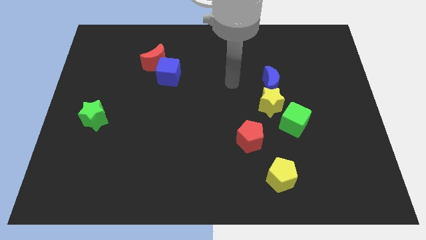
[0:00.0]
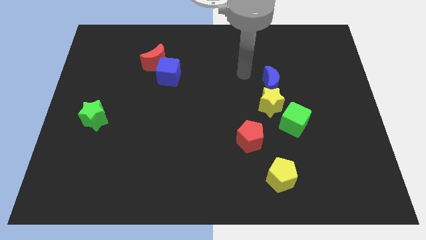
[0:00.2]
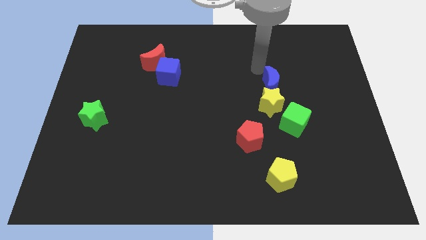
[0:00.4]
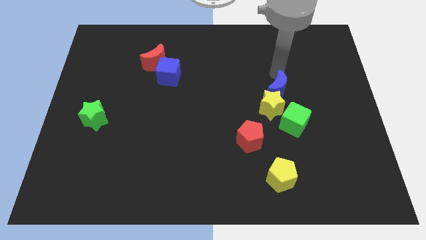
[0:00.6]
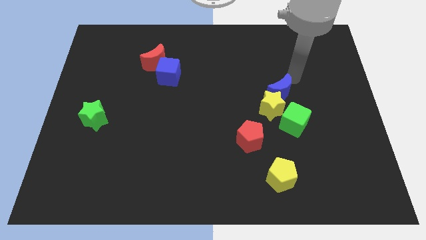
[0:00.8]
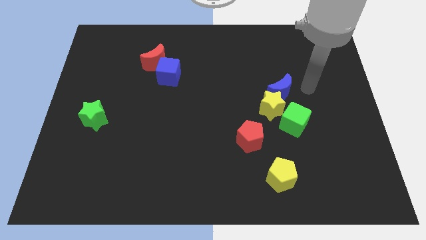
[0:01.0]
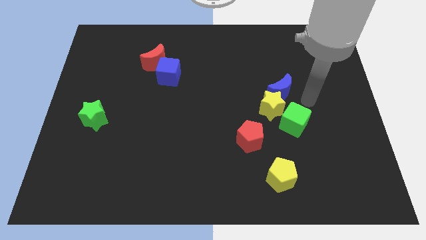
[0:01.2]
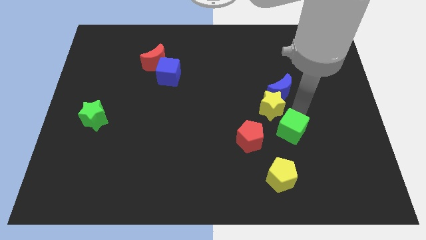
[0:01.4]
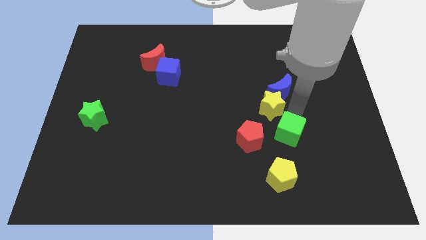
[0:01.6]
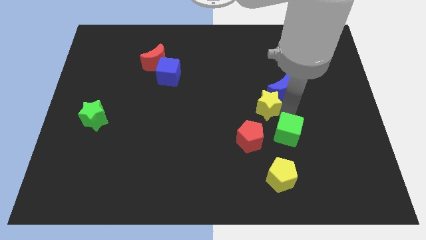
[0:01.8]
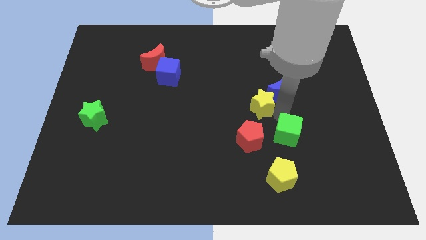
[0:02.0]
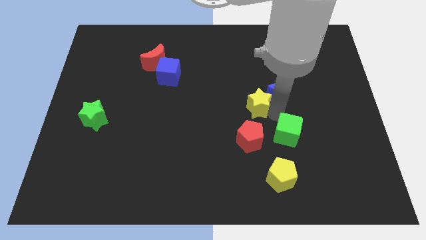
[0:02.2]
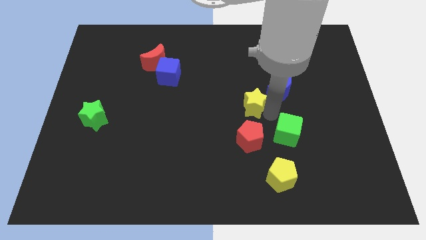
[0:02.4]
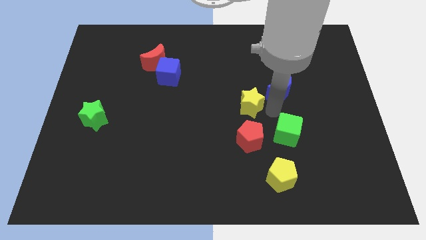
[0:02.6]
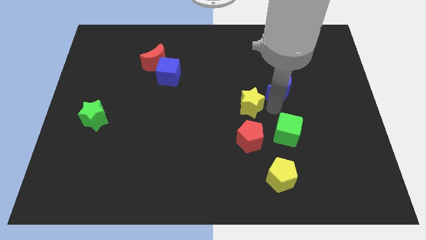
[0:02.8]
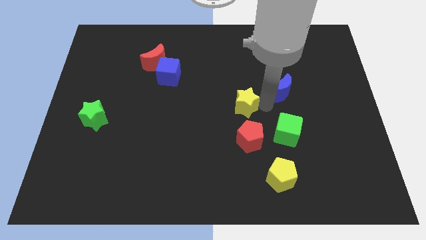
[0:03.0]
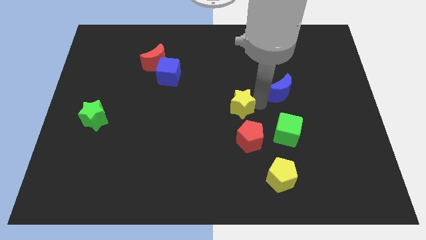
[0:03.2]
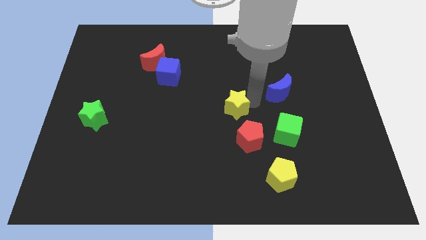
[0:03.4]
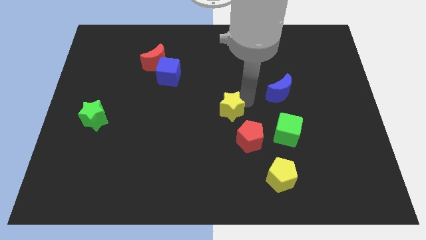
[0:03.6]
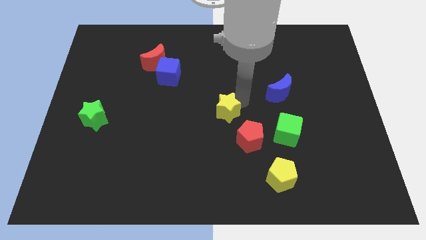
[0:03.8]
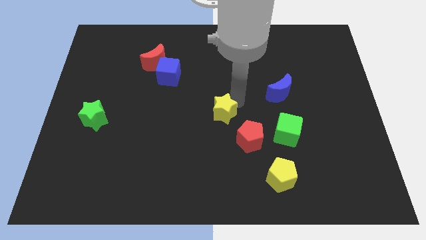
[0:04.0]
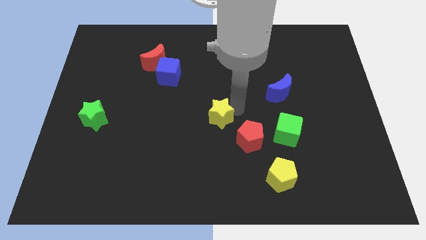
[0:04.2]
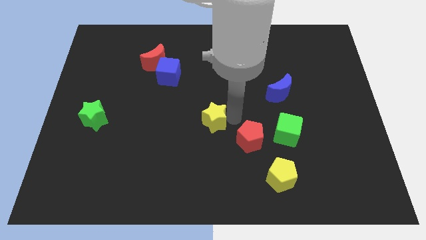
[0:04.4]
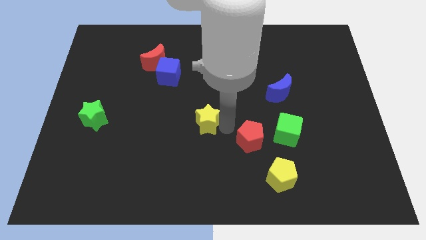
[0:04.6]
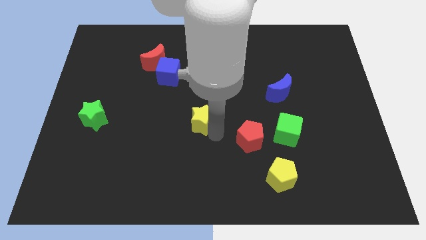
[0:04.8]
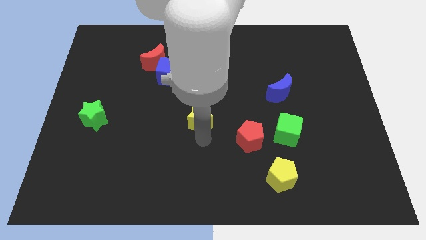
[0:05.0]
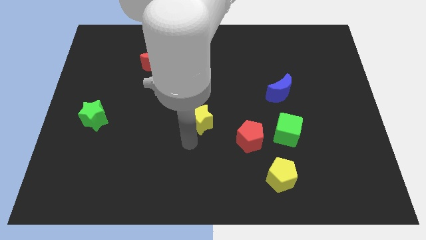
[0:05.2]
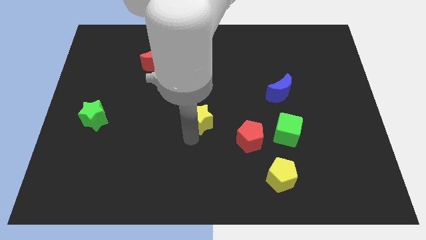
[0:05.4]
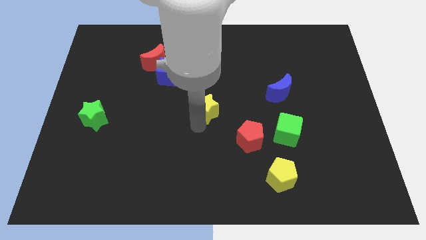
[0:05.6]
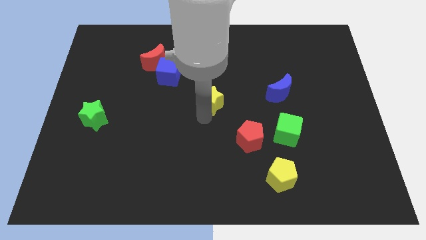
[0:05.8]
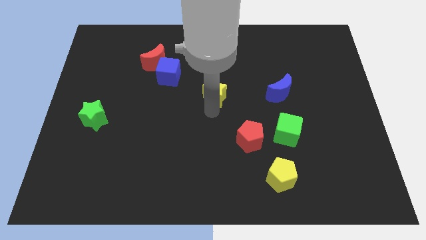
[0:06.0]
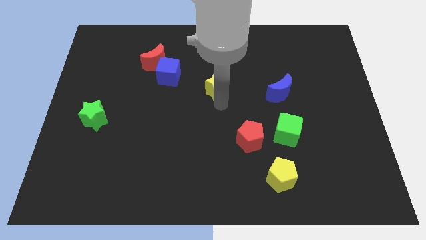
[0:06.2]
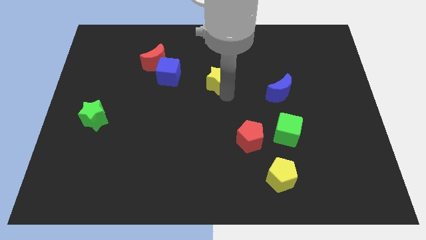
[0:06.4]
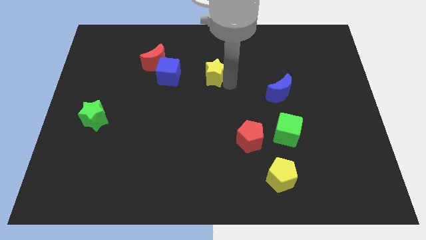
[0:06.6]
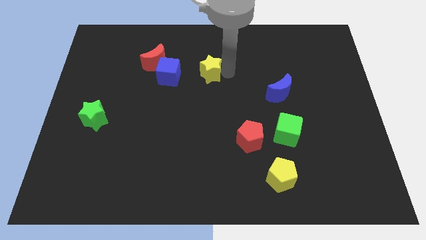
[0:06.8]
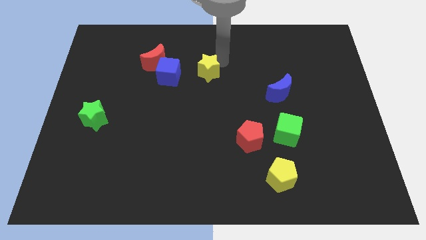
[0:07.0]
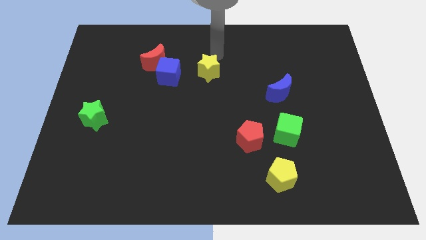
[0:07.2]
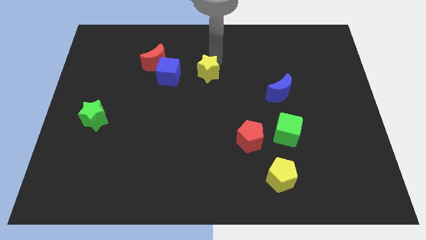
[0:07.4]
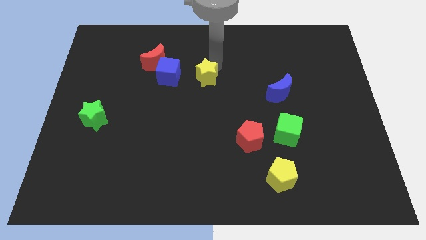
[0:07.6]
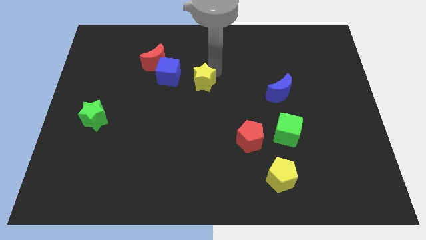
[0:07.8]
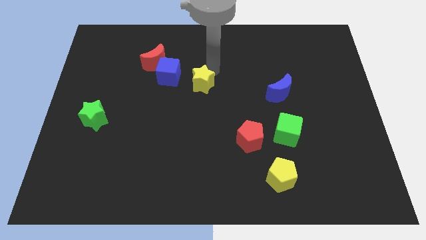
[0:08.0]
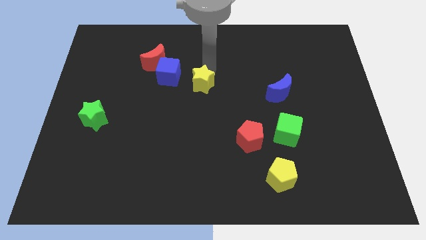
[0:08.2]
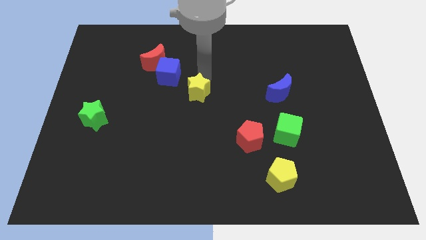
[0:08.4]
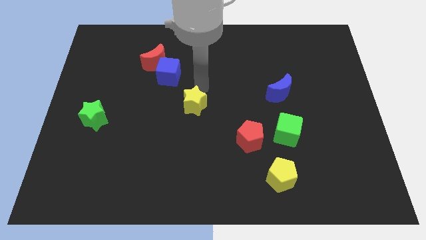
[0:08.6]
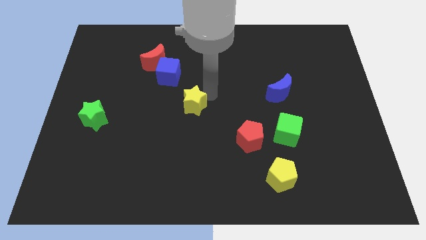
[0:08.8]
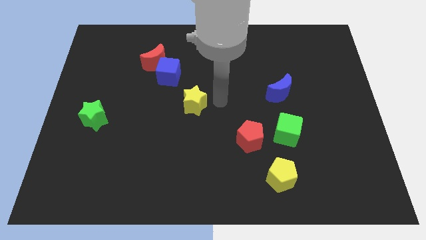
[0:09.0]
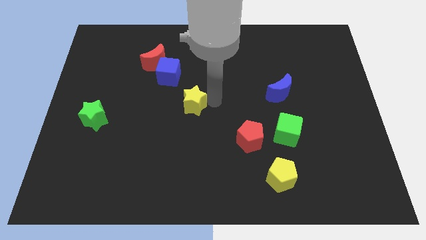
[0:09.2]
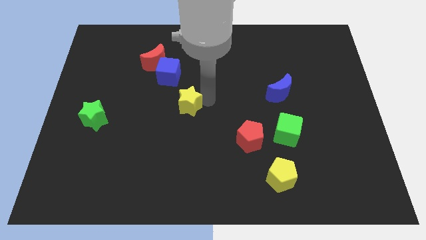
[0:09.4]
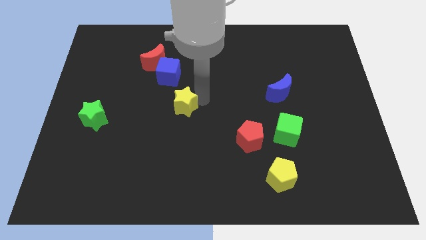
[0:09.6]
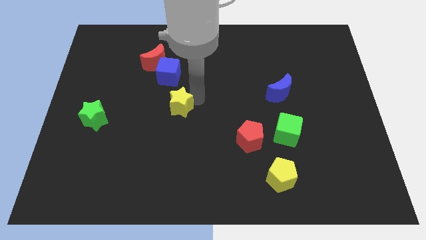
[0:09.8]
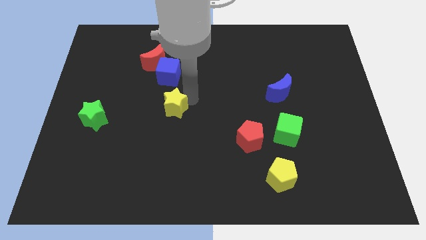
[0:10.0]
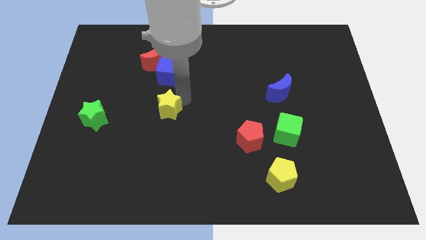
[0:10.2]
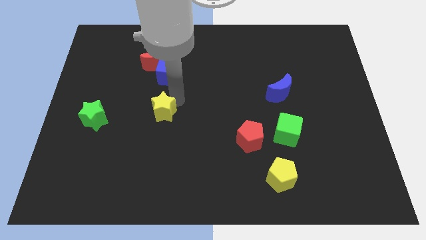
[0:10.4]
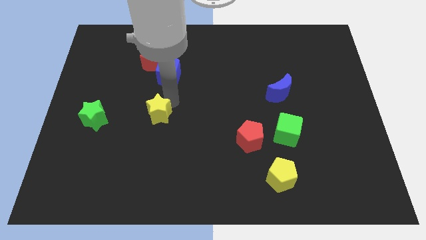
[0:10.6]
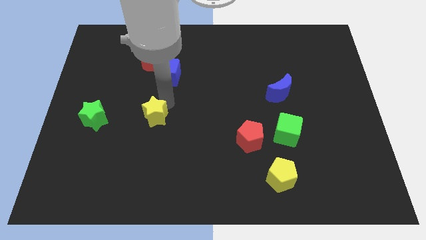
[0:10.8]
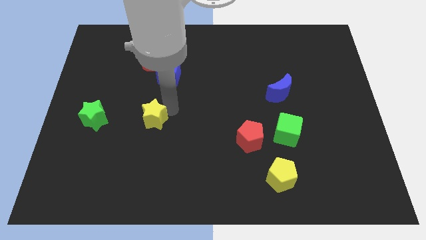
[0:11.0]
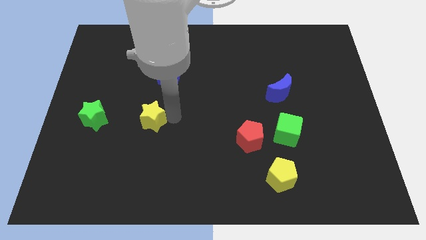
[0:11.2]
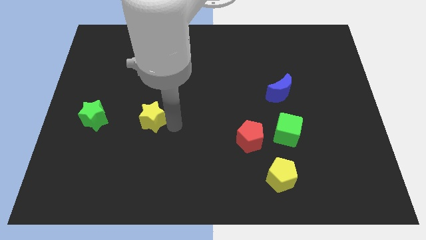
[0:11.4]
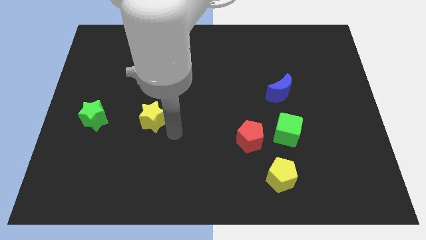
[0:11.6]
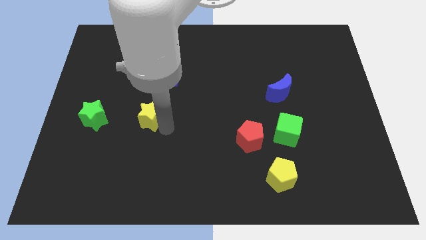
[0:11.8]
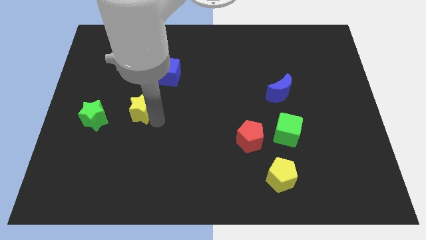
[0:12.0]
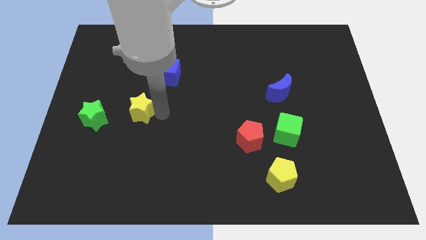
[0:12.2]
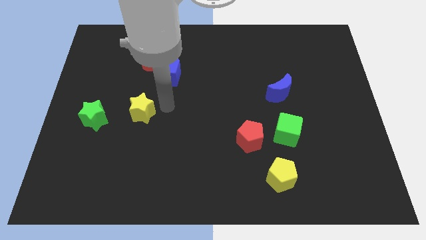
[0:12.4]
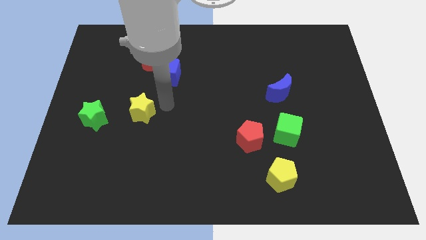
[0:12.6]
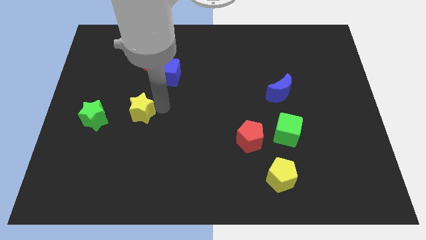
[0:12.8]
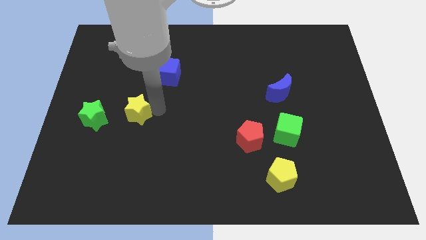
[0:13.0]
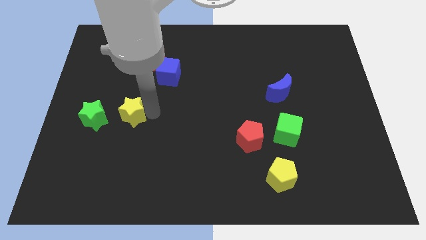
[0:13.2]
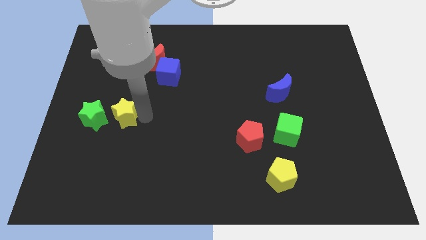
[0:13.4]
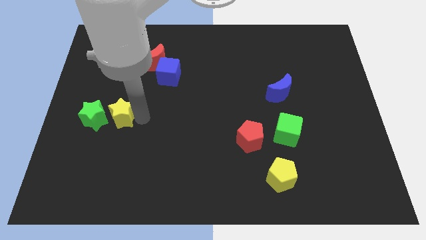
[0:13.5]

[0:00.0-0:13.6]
move the yellow star towards the green star
